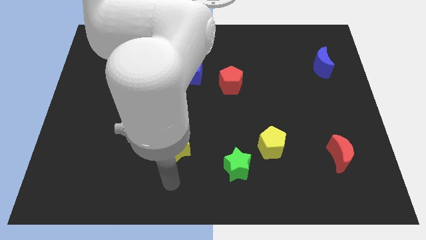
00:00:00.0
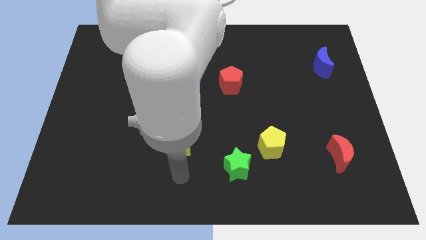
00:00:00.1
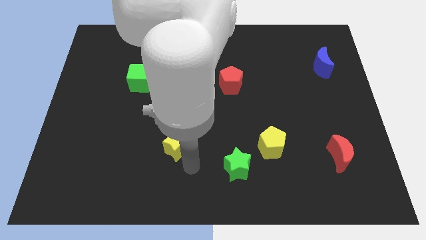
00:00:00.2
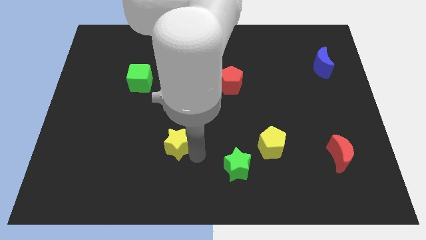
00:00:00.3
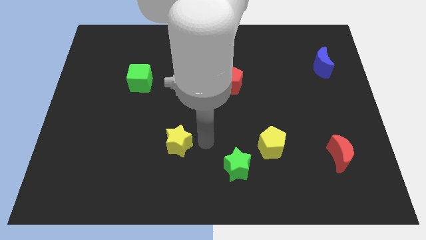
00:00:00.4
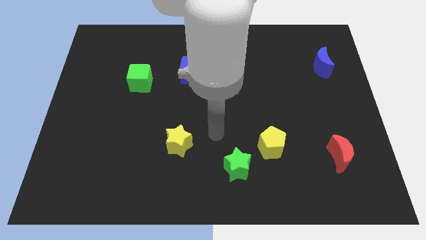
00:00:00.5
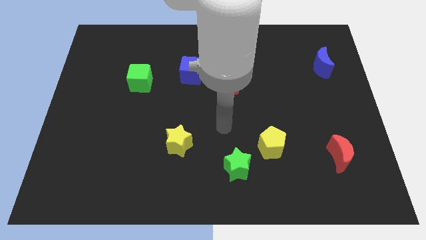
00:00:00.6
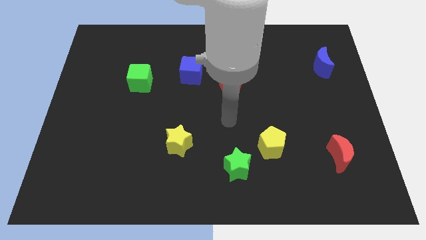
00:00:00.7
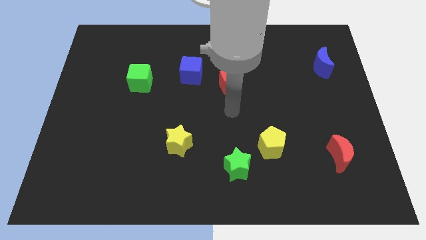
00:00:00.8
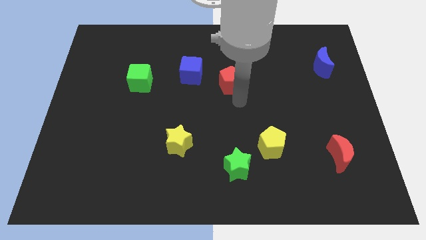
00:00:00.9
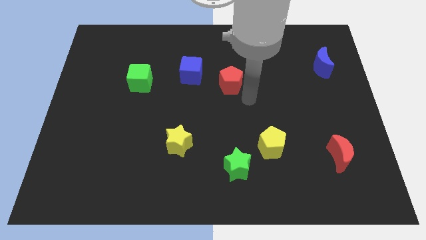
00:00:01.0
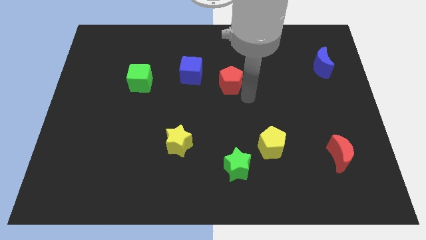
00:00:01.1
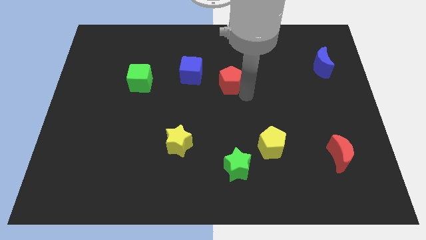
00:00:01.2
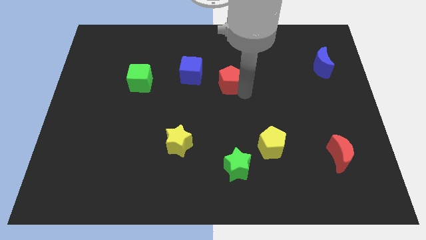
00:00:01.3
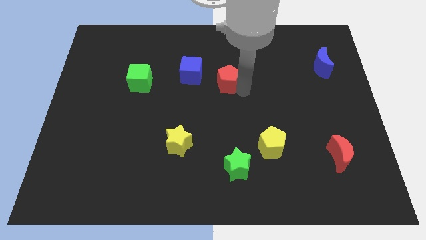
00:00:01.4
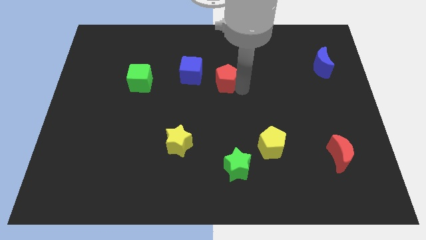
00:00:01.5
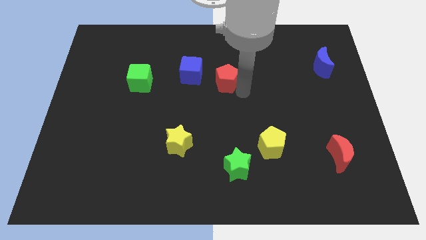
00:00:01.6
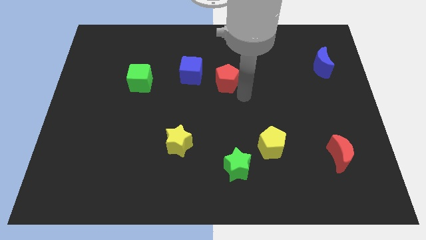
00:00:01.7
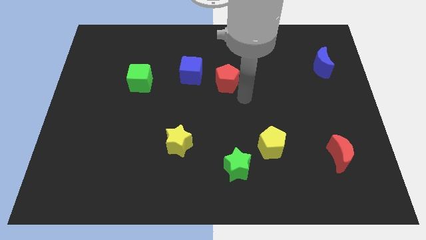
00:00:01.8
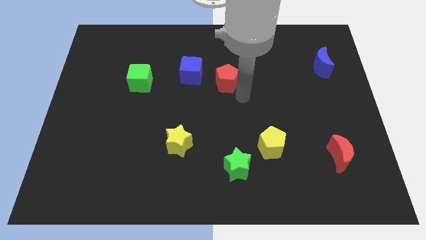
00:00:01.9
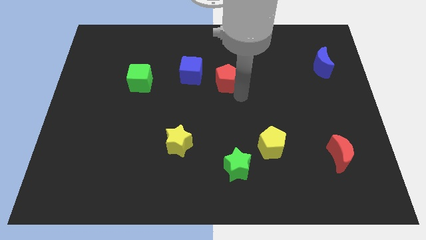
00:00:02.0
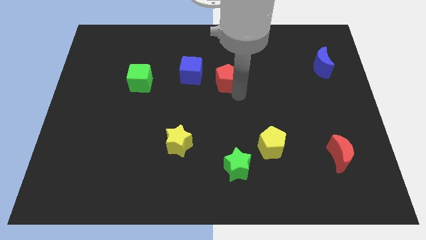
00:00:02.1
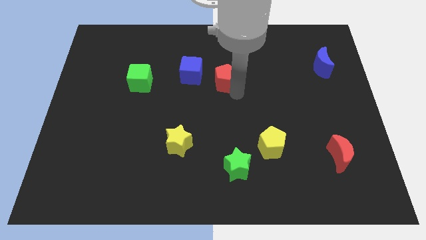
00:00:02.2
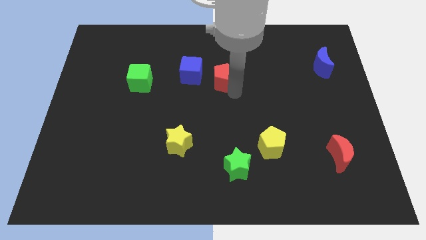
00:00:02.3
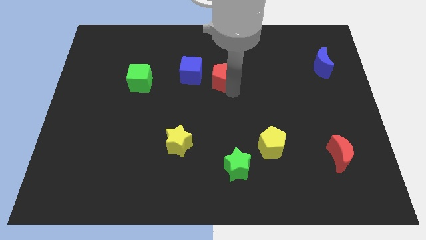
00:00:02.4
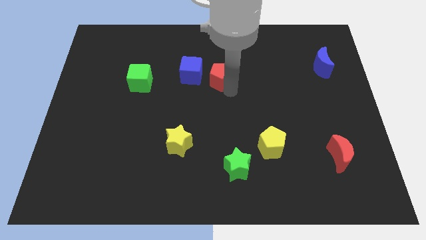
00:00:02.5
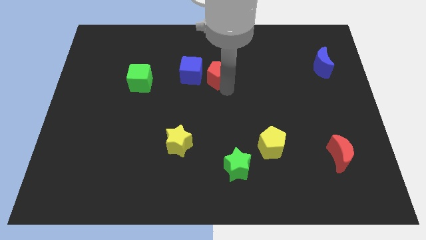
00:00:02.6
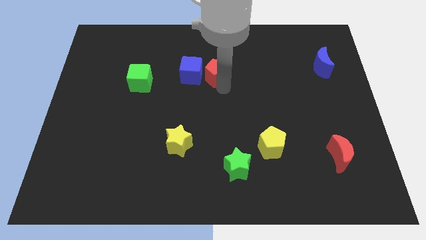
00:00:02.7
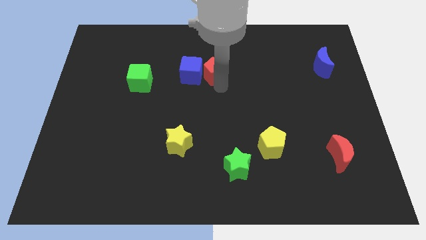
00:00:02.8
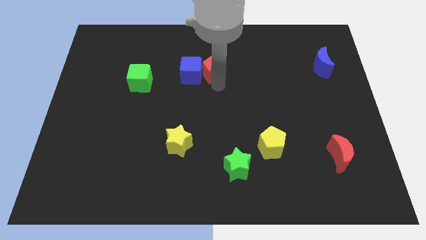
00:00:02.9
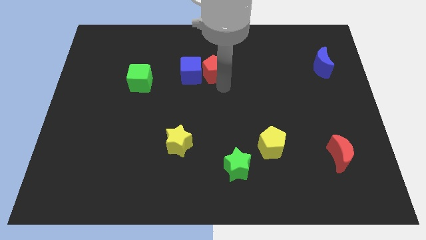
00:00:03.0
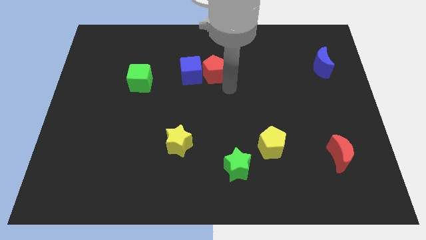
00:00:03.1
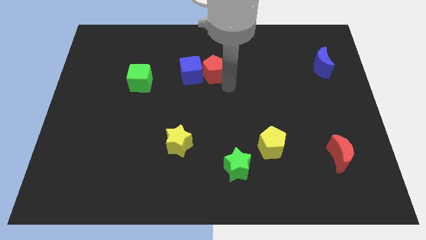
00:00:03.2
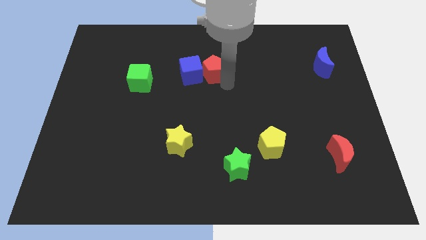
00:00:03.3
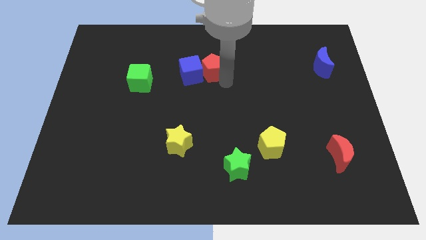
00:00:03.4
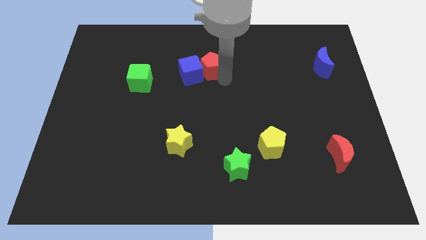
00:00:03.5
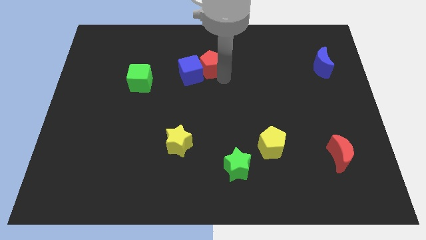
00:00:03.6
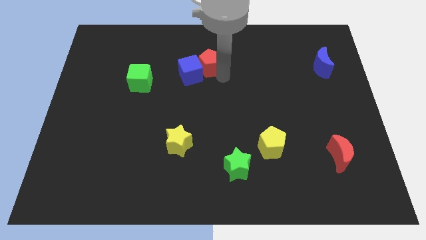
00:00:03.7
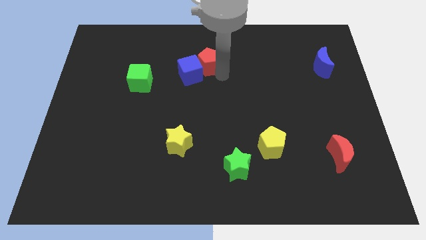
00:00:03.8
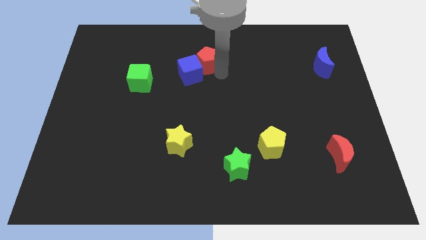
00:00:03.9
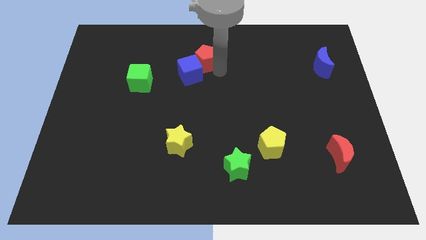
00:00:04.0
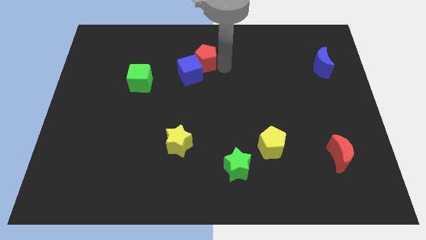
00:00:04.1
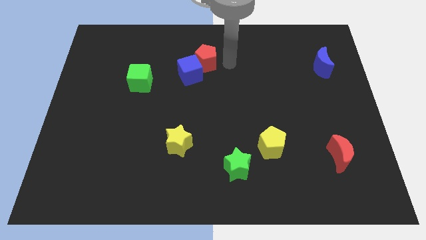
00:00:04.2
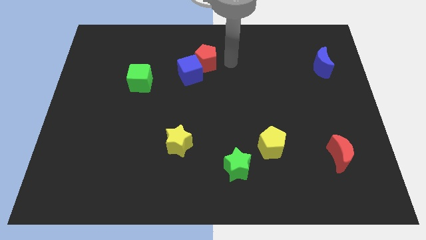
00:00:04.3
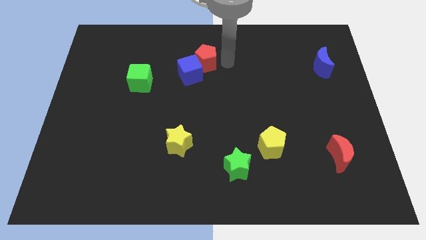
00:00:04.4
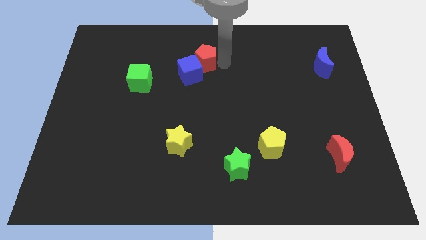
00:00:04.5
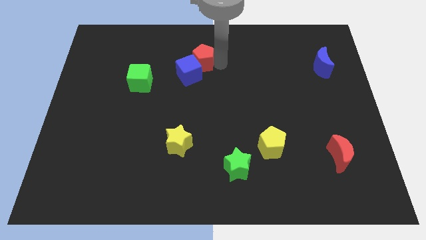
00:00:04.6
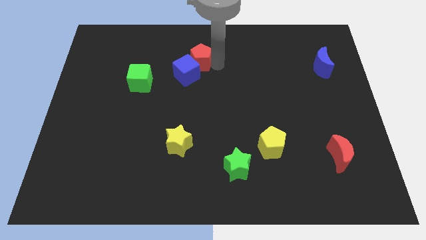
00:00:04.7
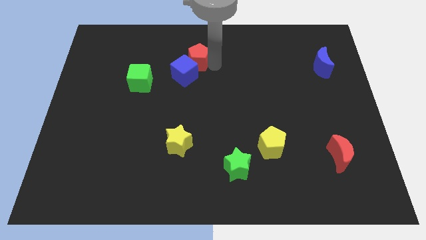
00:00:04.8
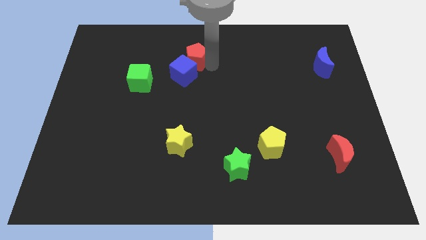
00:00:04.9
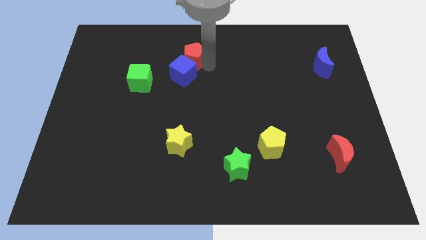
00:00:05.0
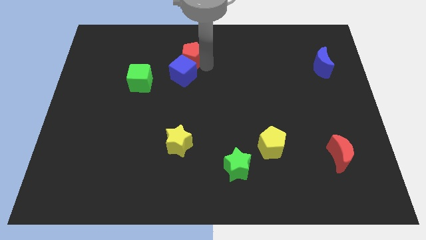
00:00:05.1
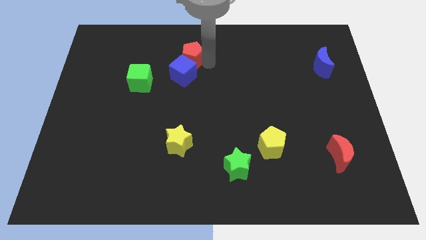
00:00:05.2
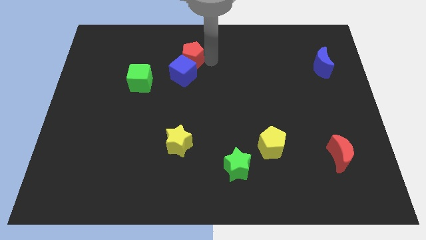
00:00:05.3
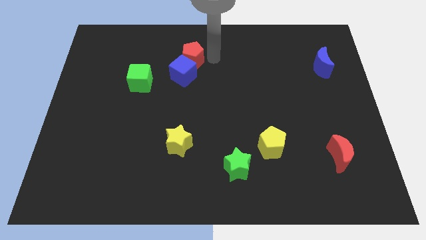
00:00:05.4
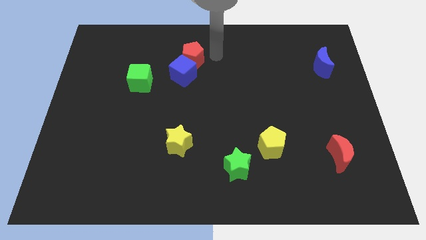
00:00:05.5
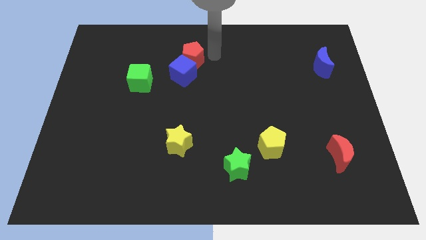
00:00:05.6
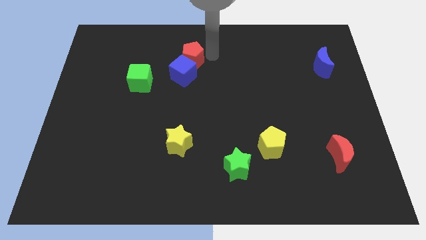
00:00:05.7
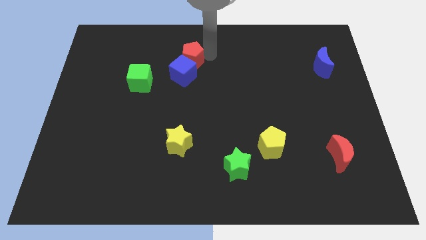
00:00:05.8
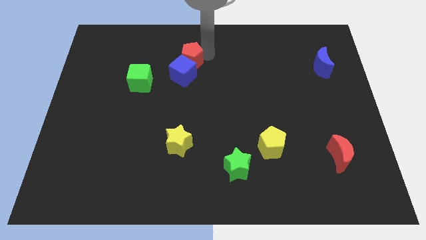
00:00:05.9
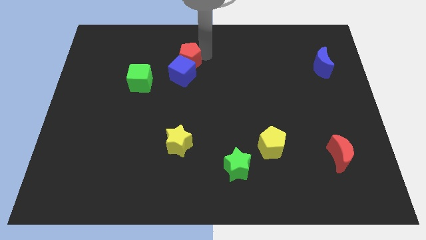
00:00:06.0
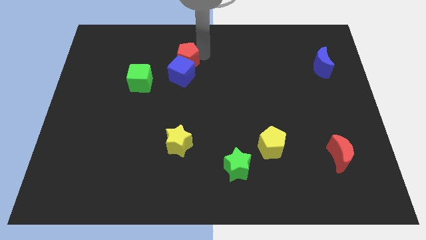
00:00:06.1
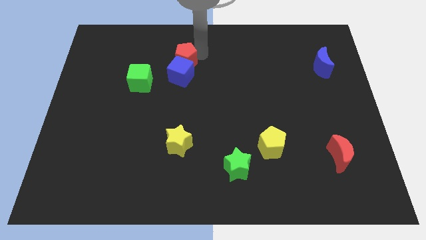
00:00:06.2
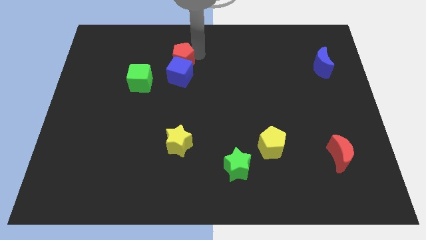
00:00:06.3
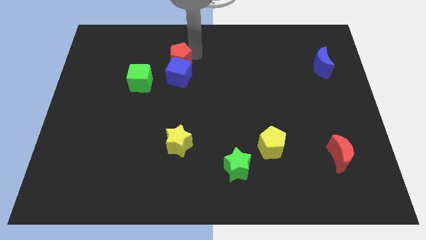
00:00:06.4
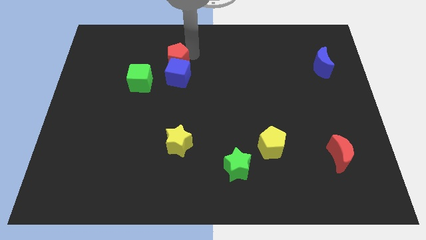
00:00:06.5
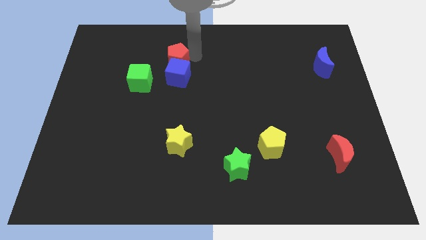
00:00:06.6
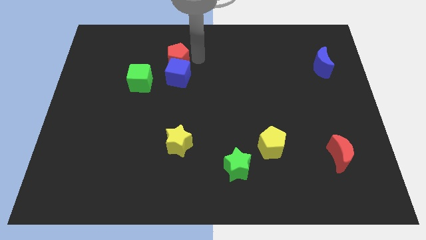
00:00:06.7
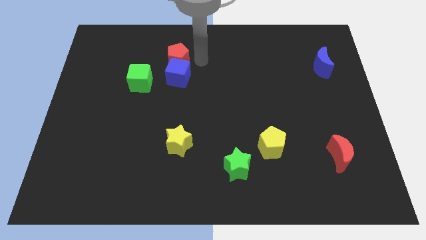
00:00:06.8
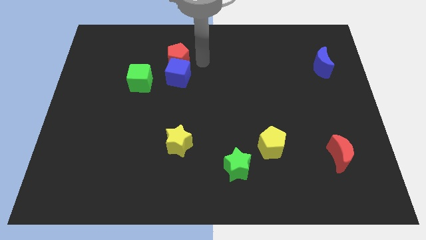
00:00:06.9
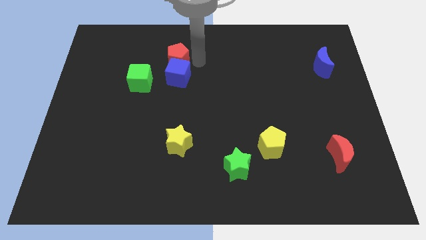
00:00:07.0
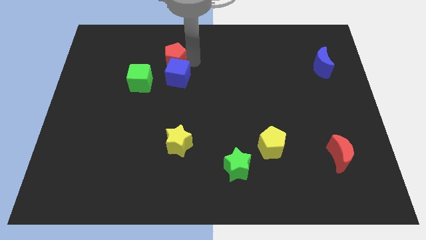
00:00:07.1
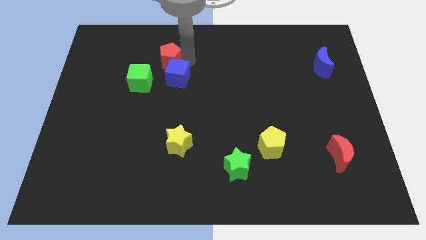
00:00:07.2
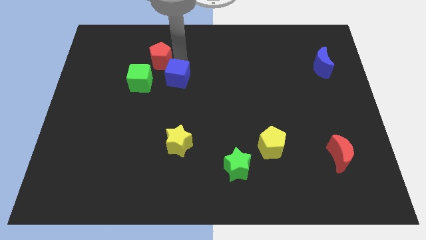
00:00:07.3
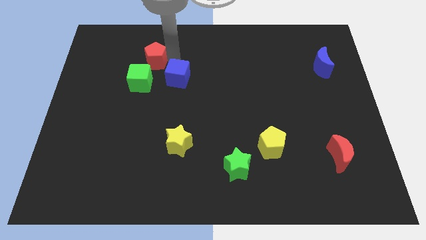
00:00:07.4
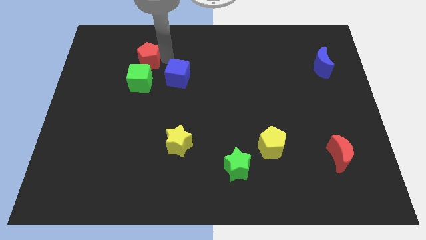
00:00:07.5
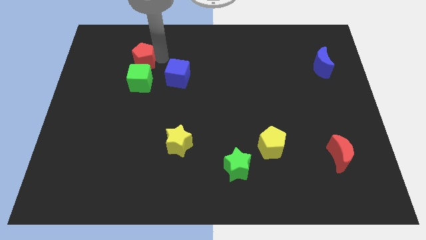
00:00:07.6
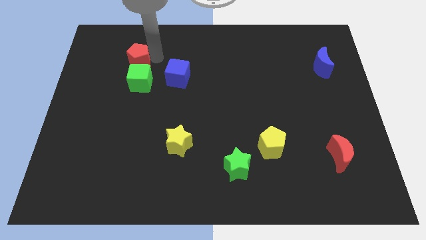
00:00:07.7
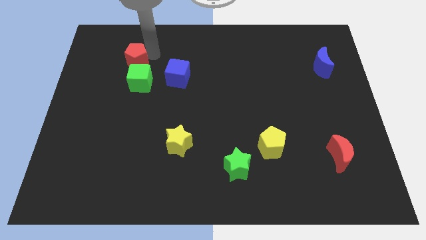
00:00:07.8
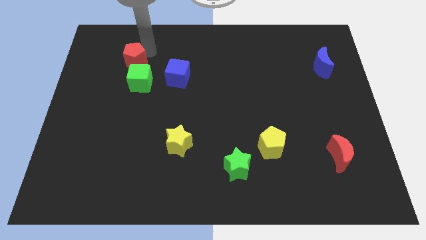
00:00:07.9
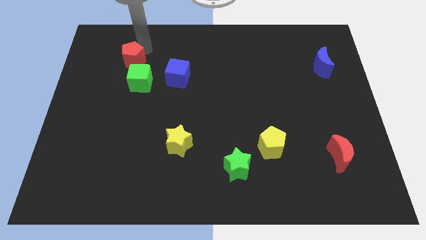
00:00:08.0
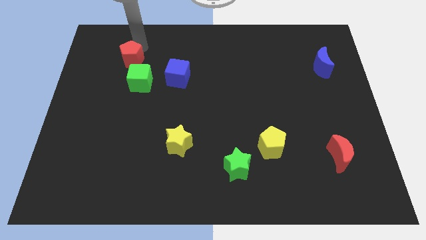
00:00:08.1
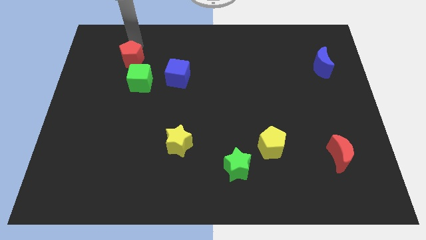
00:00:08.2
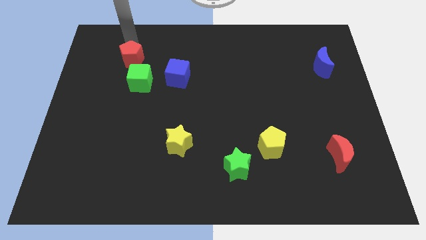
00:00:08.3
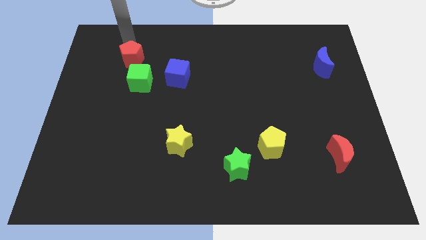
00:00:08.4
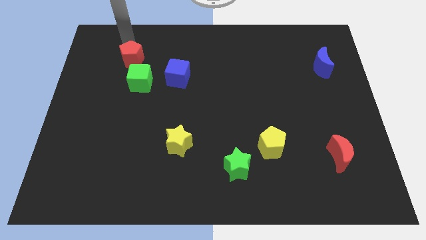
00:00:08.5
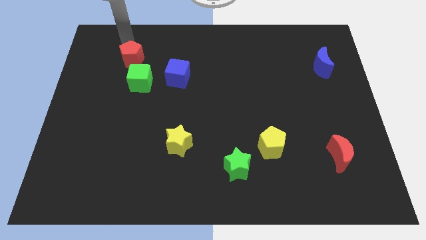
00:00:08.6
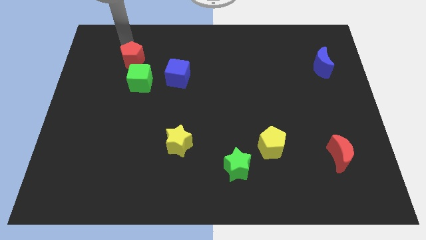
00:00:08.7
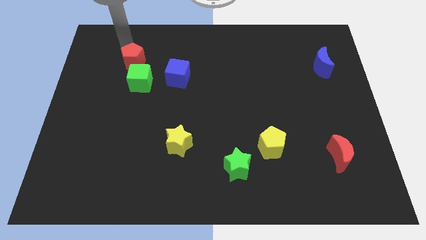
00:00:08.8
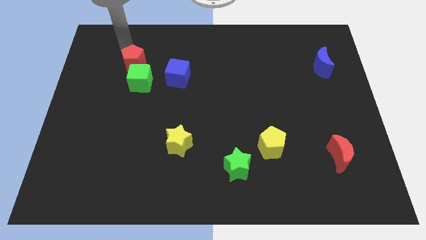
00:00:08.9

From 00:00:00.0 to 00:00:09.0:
slide the red pentagon just left of the blue cube
